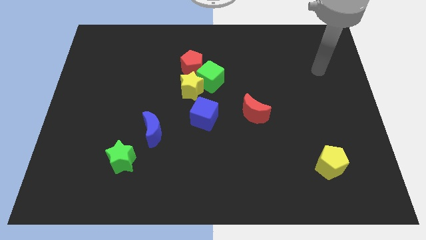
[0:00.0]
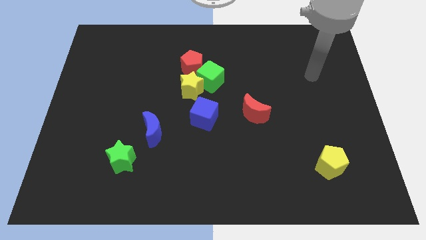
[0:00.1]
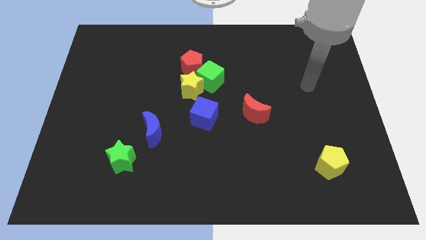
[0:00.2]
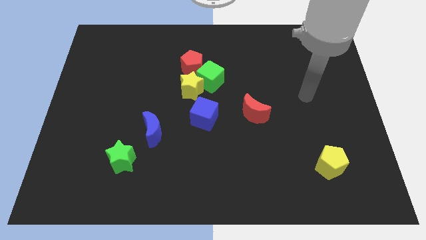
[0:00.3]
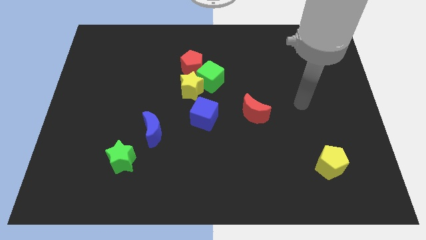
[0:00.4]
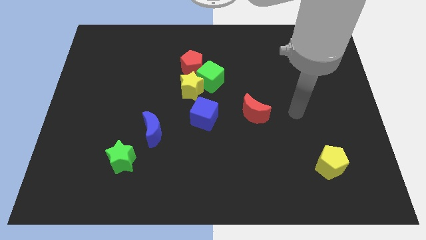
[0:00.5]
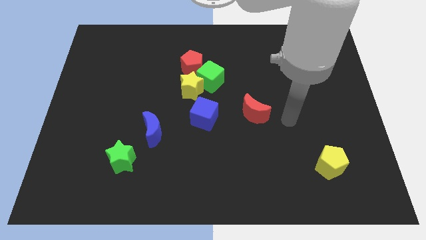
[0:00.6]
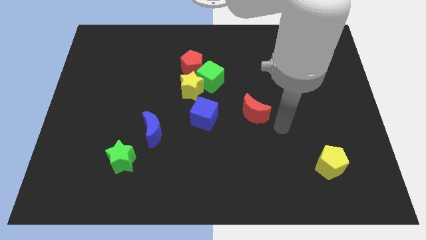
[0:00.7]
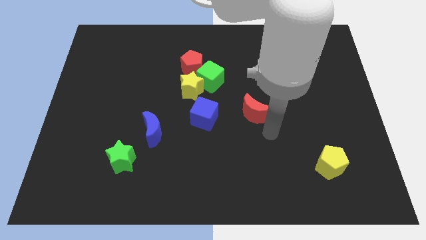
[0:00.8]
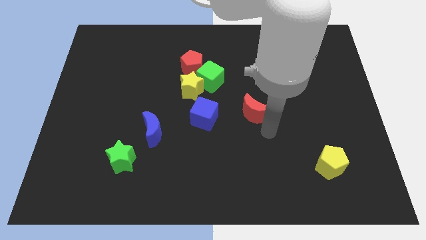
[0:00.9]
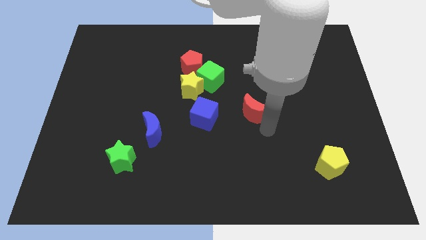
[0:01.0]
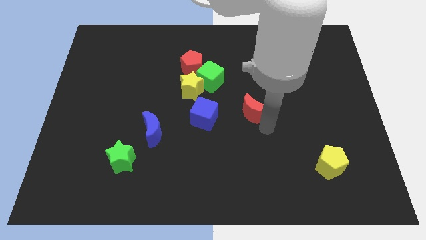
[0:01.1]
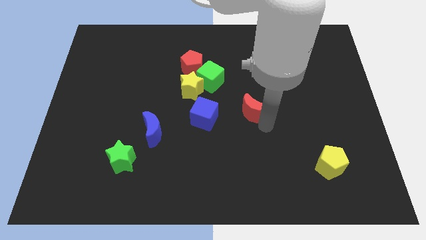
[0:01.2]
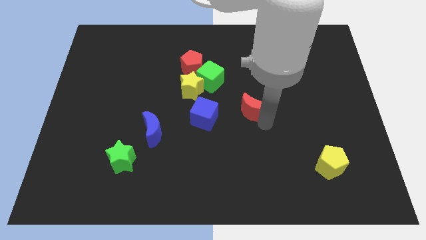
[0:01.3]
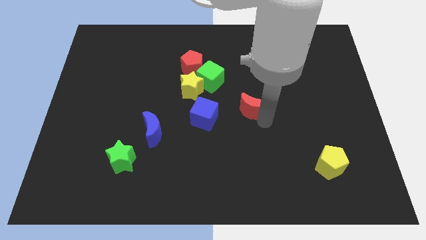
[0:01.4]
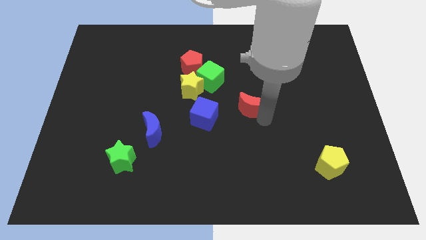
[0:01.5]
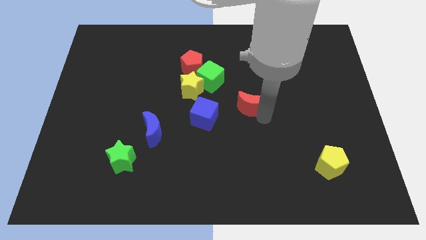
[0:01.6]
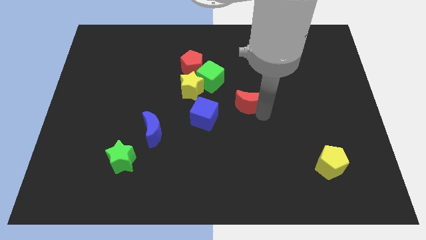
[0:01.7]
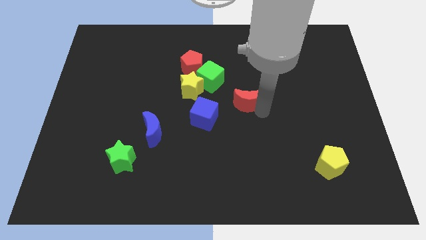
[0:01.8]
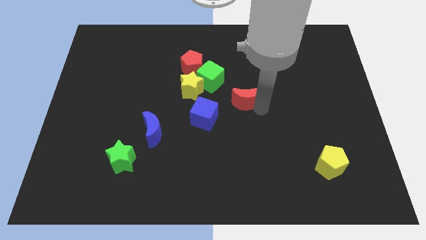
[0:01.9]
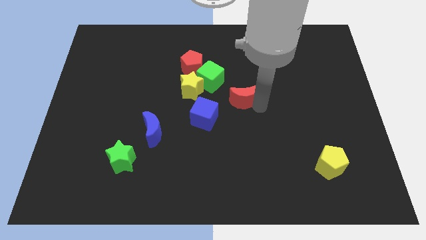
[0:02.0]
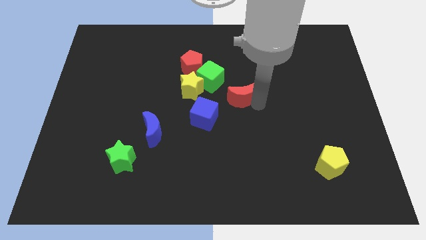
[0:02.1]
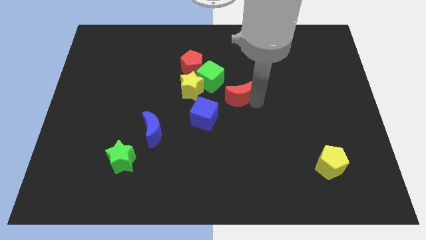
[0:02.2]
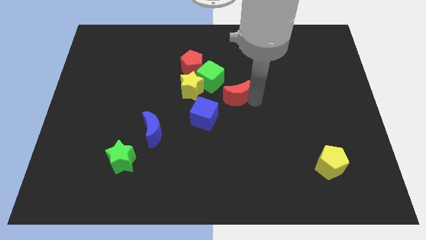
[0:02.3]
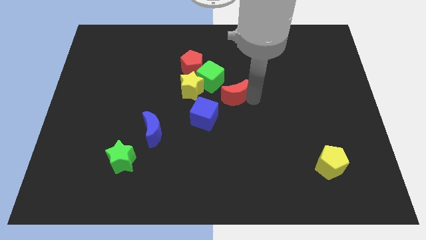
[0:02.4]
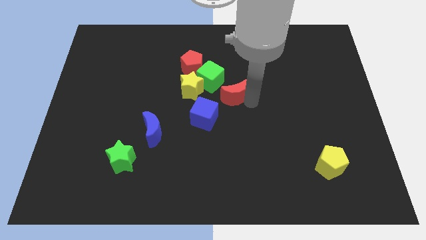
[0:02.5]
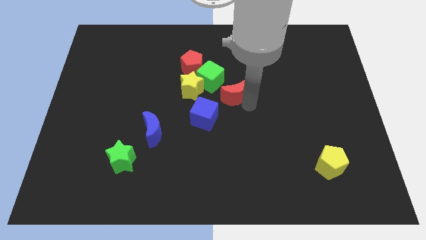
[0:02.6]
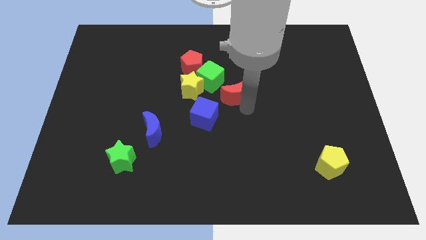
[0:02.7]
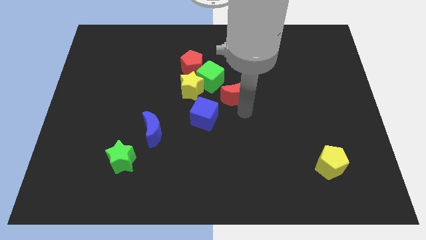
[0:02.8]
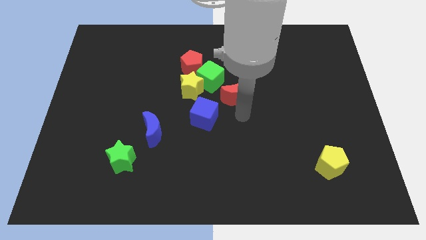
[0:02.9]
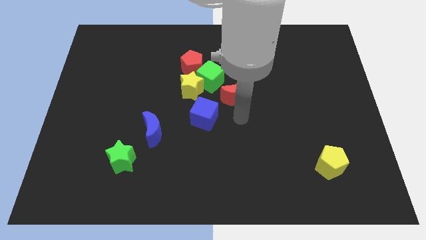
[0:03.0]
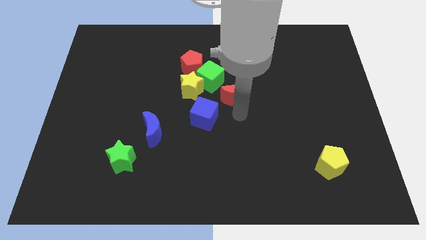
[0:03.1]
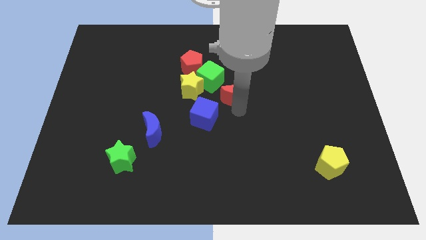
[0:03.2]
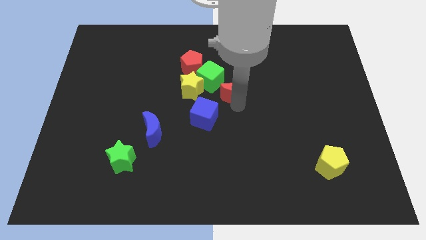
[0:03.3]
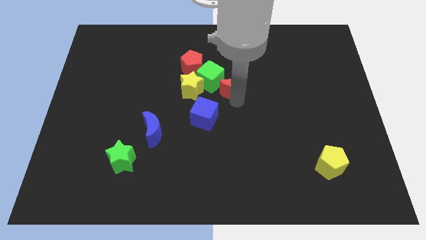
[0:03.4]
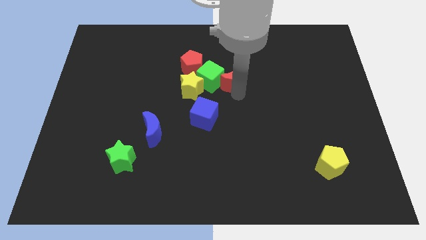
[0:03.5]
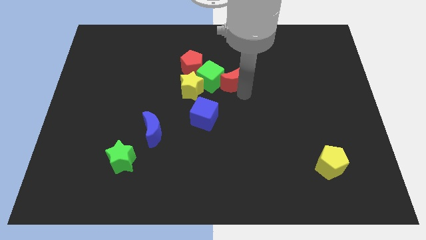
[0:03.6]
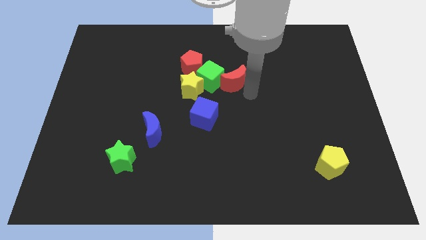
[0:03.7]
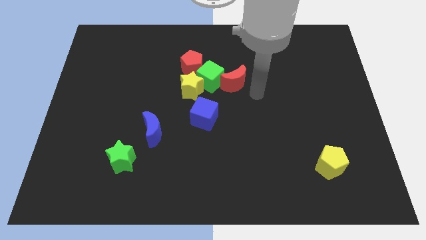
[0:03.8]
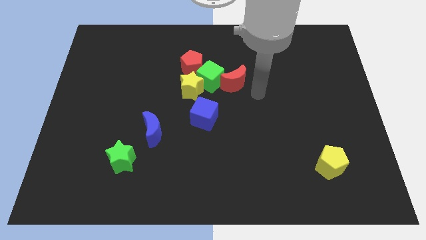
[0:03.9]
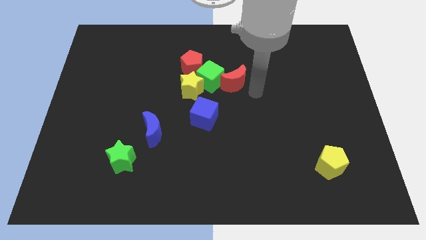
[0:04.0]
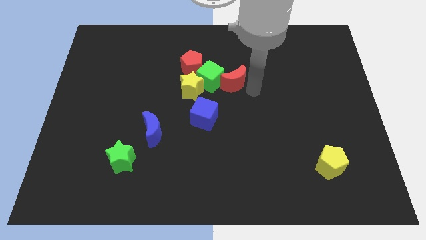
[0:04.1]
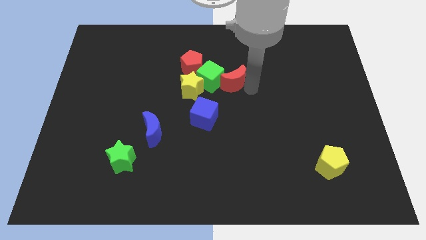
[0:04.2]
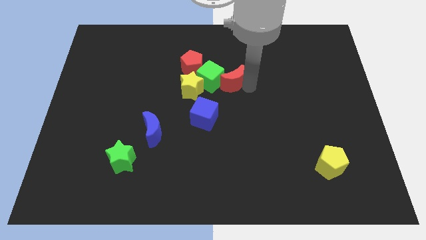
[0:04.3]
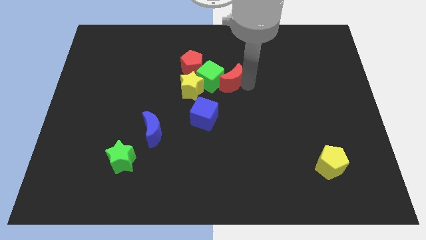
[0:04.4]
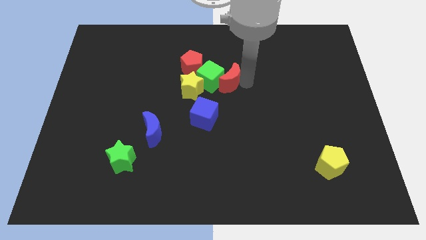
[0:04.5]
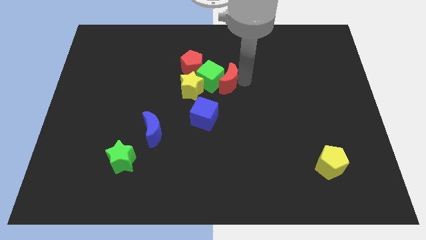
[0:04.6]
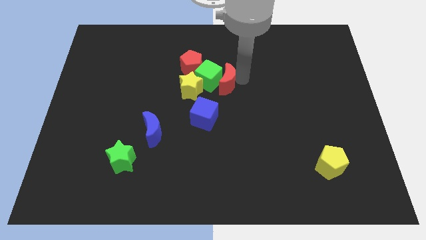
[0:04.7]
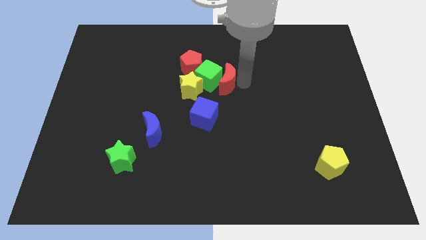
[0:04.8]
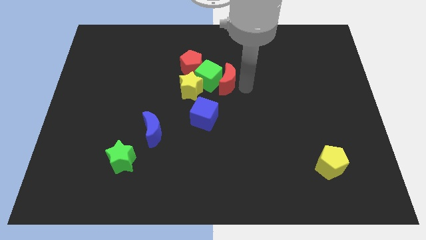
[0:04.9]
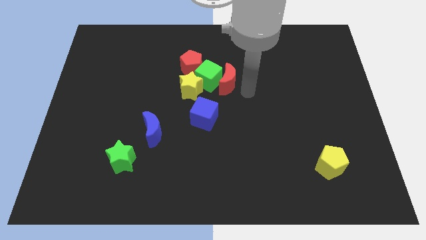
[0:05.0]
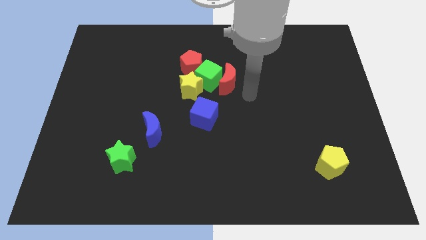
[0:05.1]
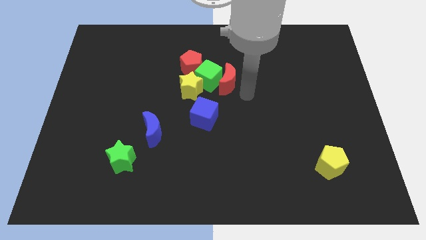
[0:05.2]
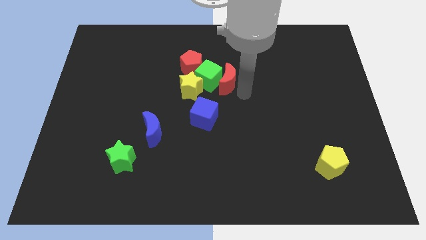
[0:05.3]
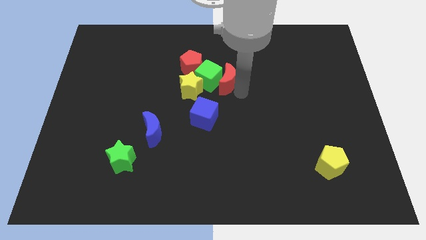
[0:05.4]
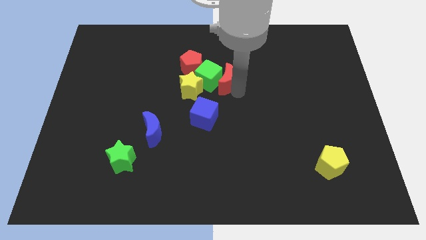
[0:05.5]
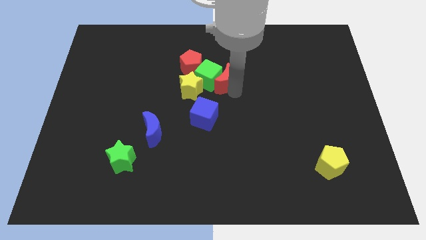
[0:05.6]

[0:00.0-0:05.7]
push the red moon to the top right of the yellow star

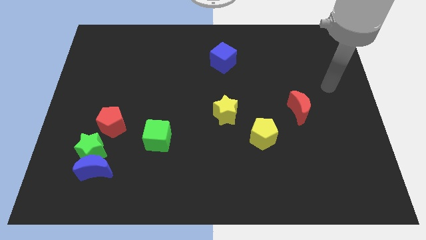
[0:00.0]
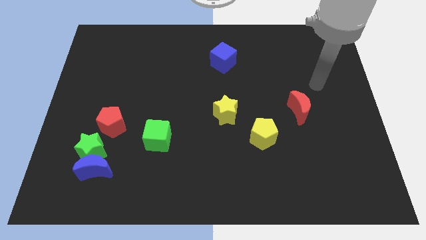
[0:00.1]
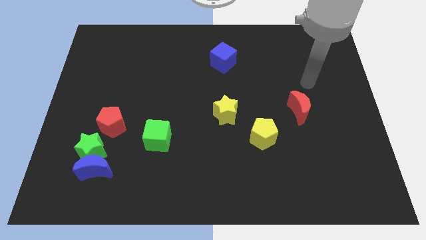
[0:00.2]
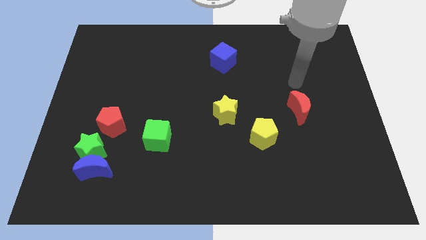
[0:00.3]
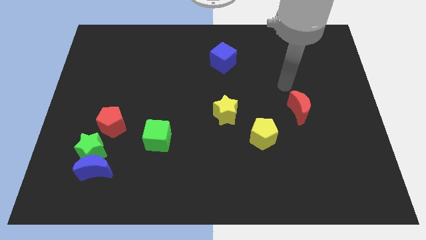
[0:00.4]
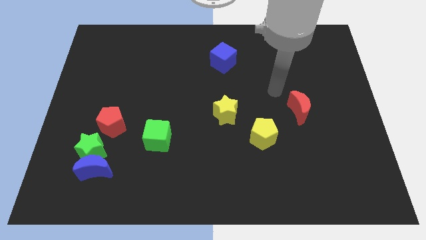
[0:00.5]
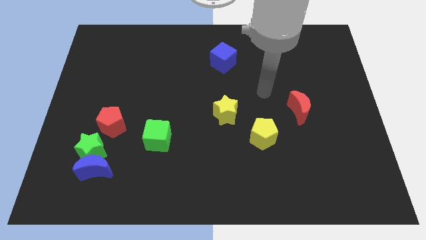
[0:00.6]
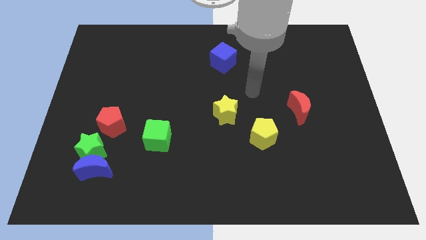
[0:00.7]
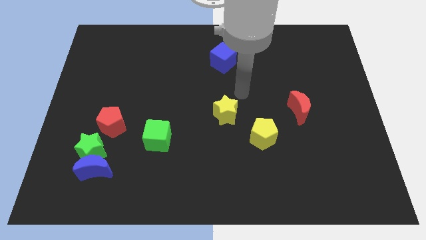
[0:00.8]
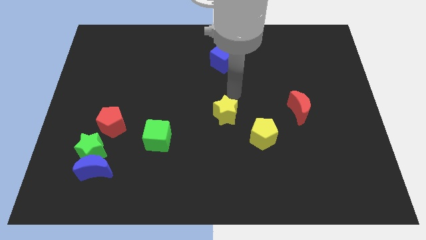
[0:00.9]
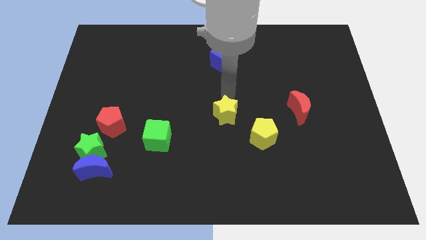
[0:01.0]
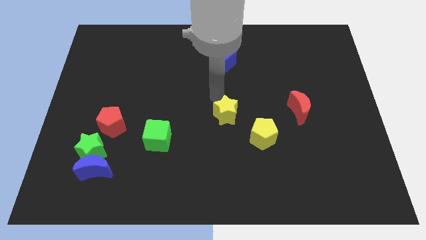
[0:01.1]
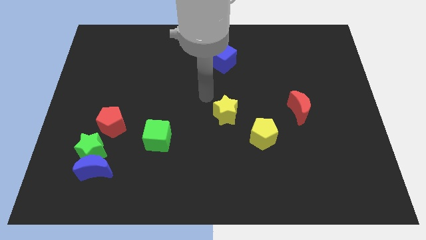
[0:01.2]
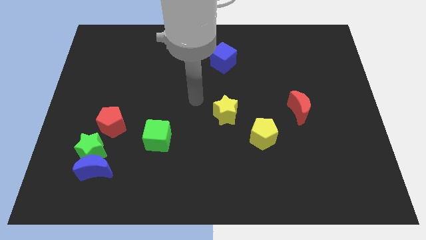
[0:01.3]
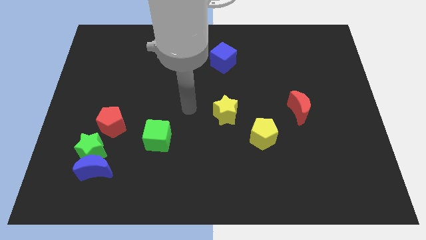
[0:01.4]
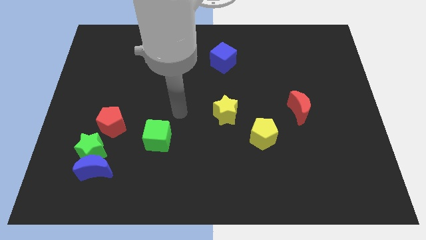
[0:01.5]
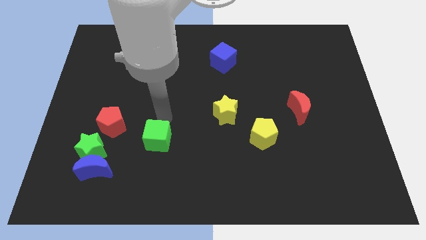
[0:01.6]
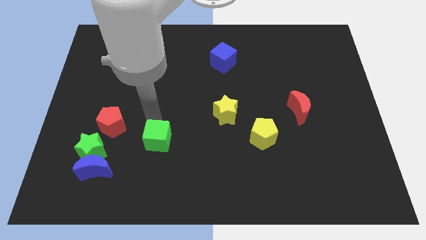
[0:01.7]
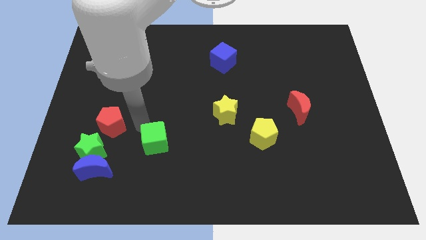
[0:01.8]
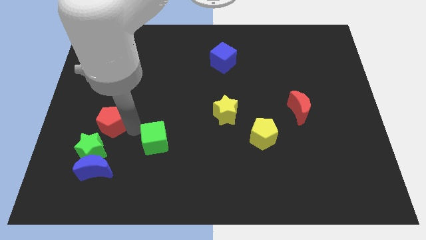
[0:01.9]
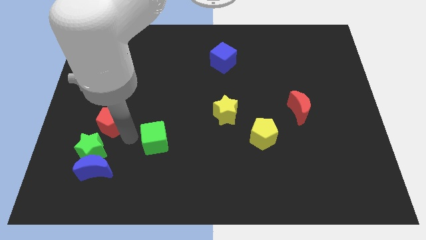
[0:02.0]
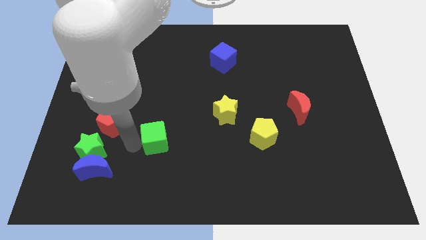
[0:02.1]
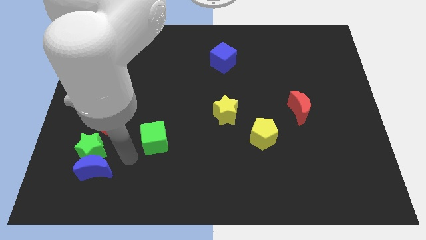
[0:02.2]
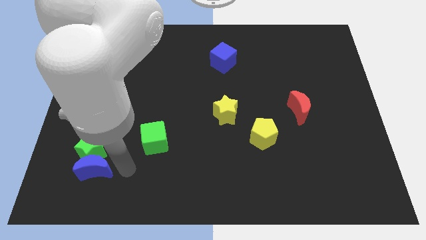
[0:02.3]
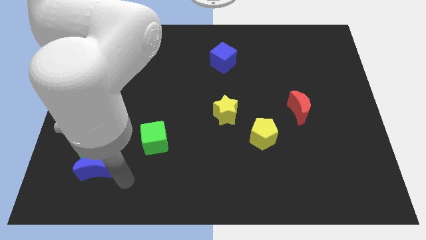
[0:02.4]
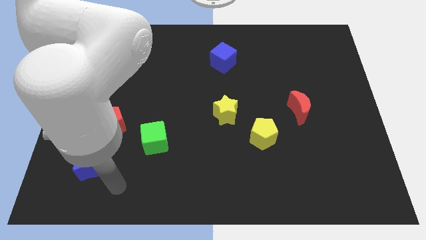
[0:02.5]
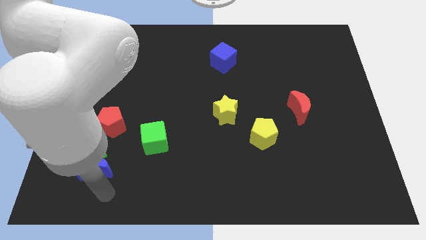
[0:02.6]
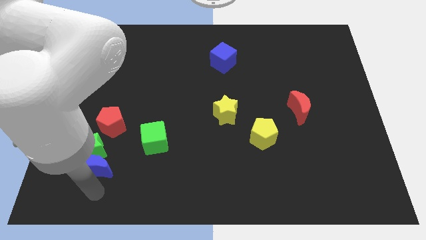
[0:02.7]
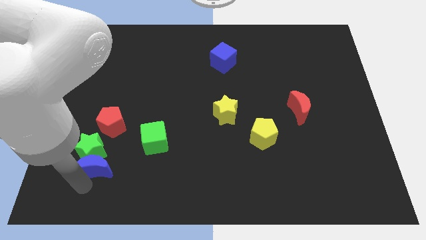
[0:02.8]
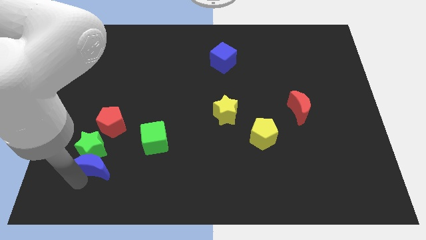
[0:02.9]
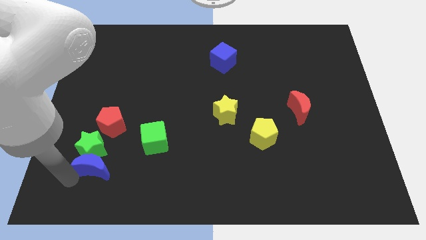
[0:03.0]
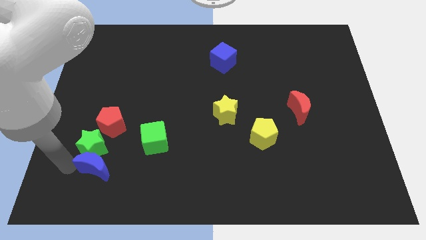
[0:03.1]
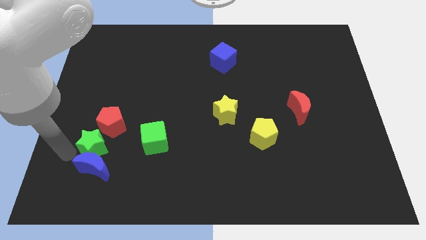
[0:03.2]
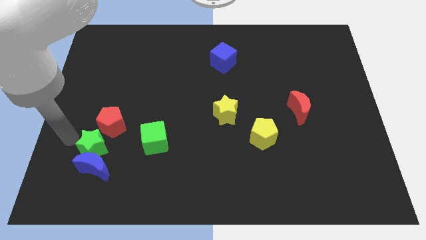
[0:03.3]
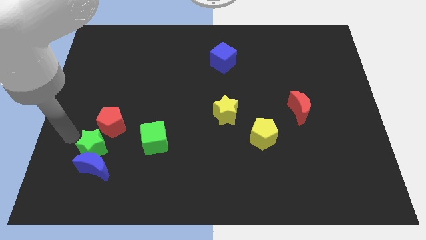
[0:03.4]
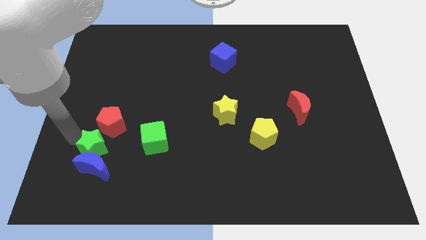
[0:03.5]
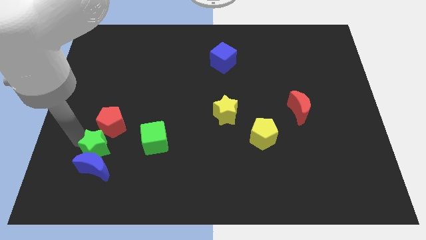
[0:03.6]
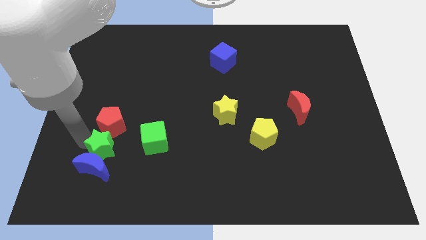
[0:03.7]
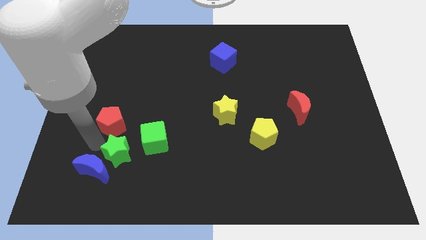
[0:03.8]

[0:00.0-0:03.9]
slide the green star just right of the blue moon
